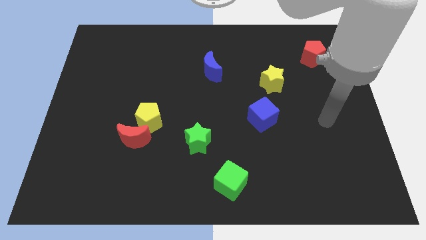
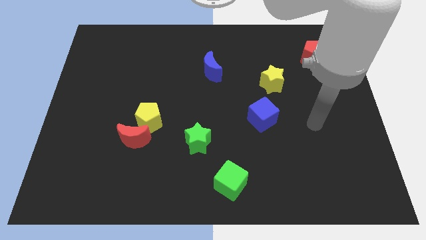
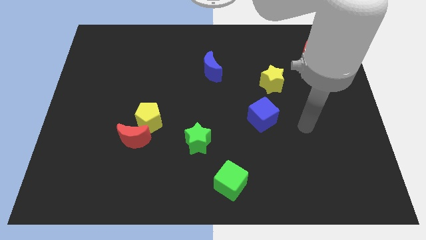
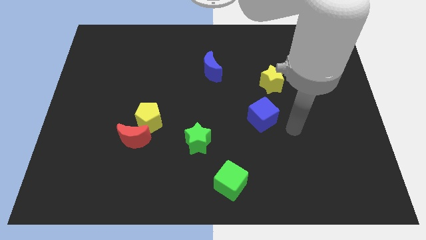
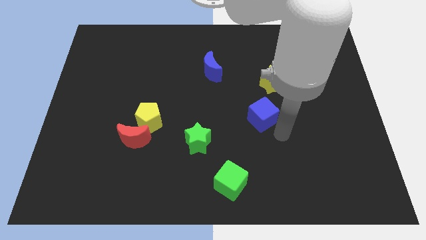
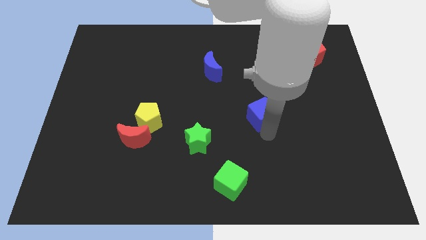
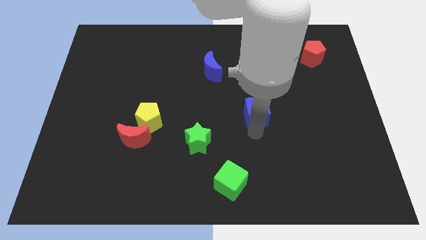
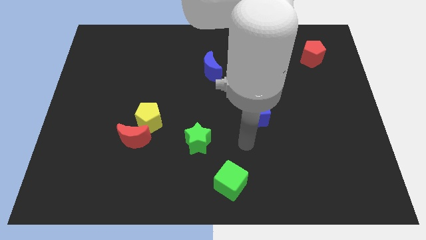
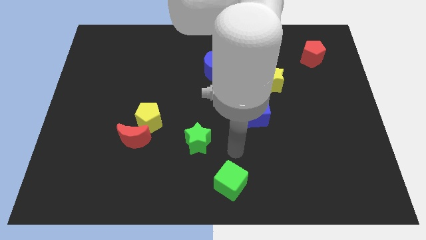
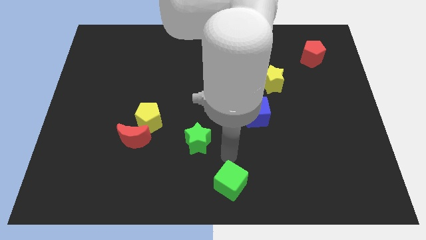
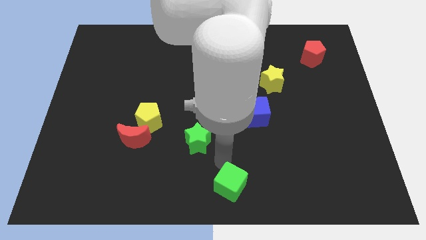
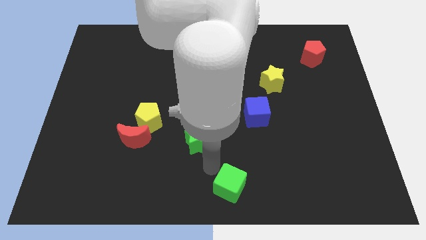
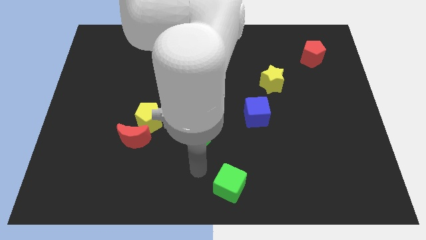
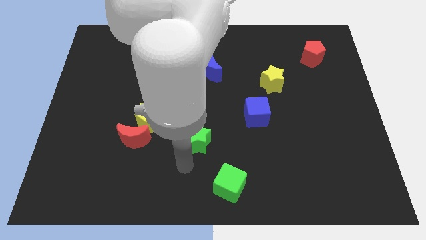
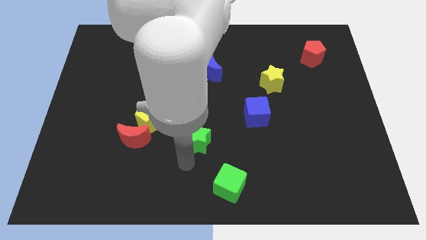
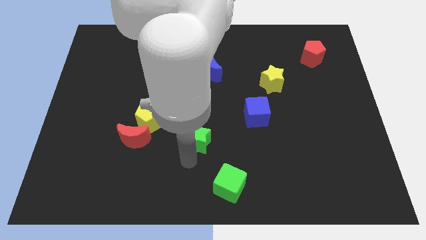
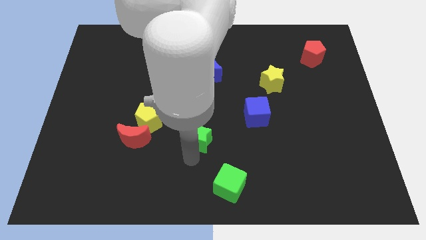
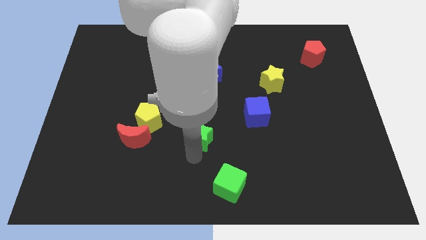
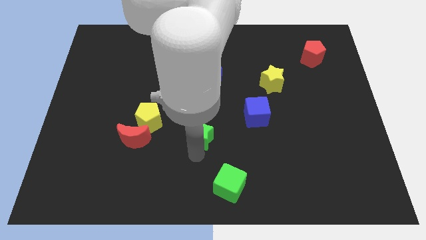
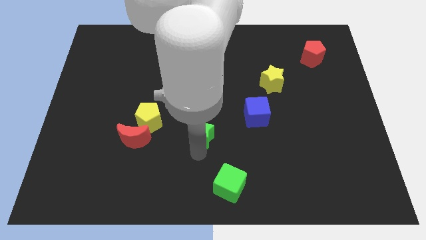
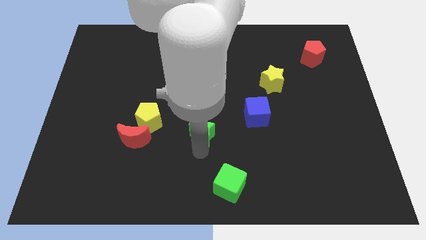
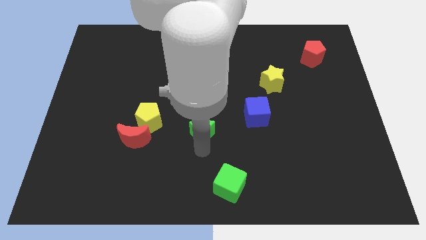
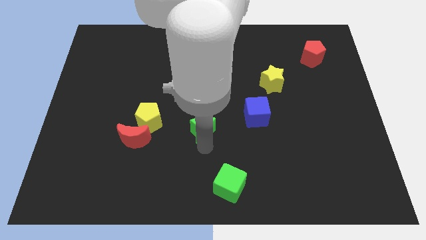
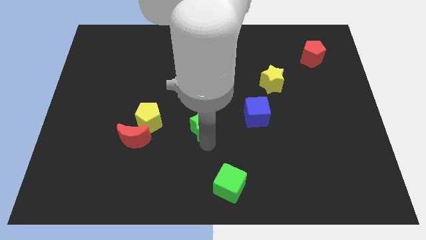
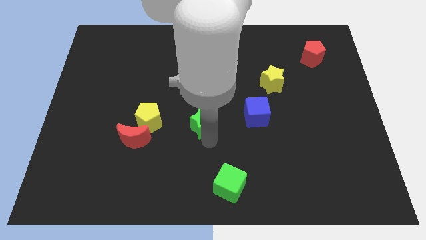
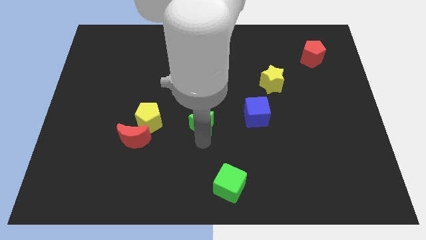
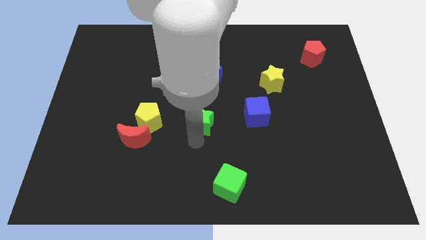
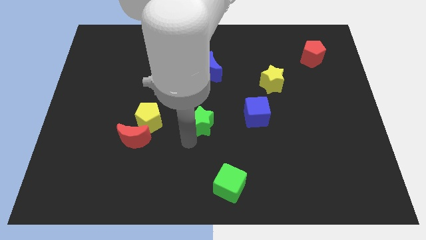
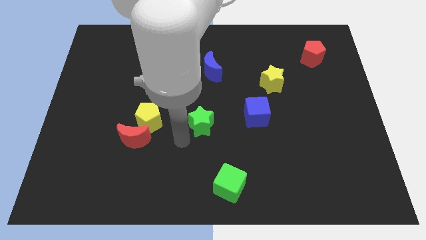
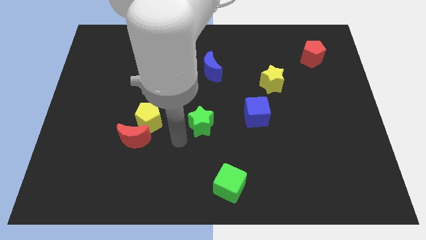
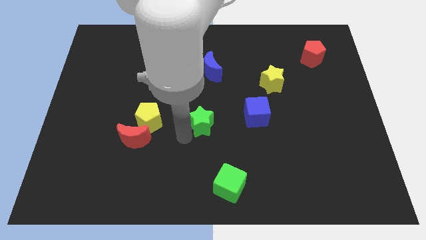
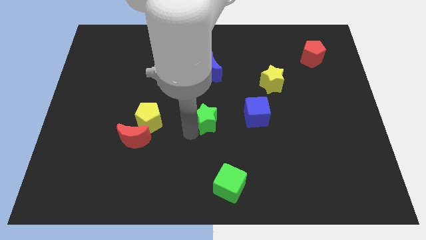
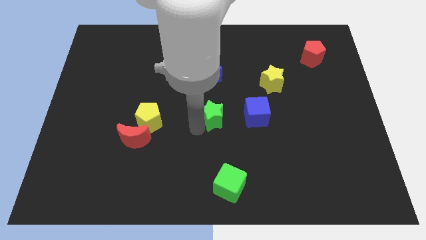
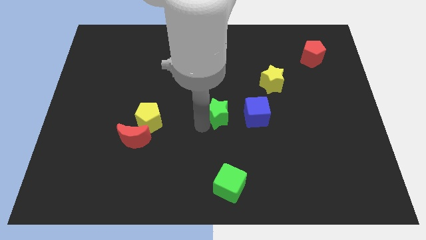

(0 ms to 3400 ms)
slightly slide the green star upwards and then right

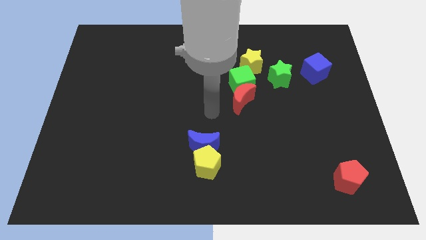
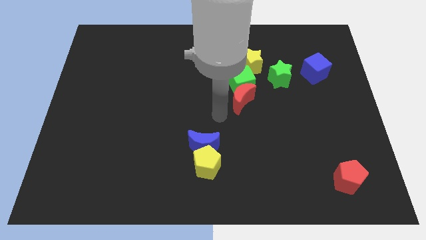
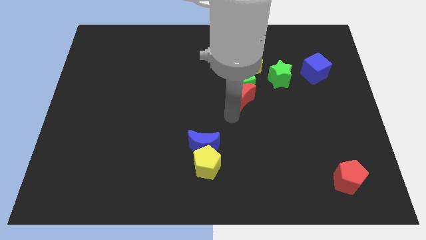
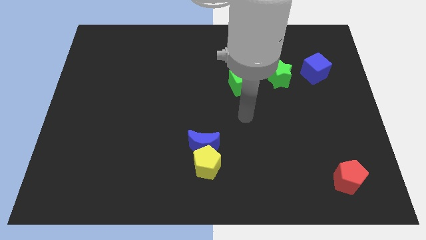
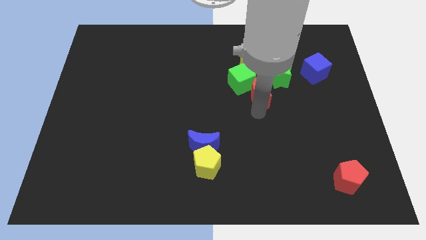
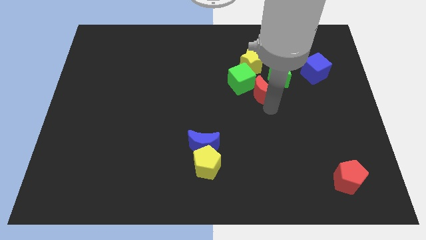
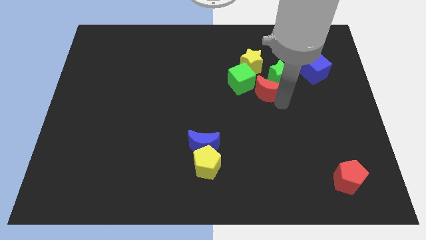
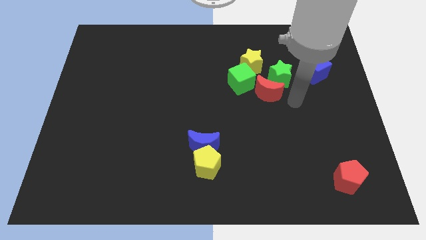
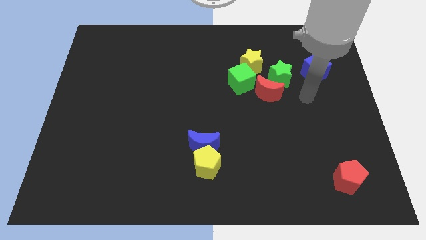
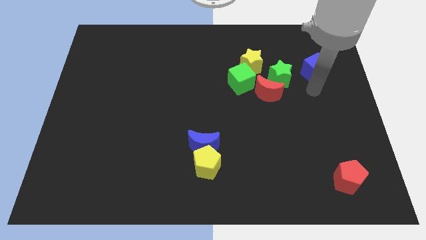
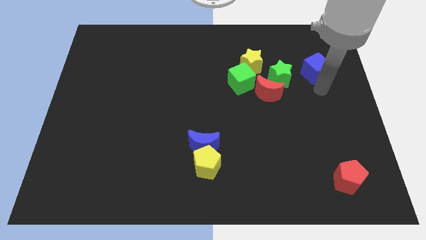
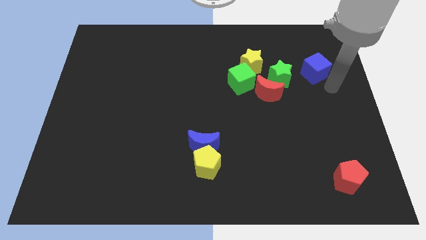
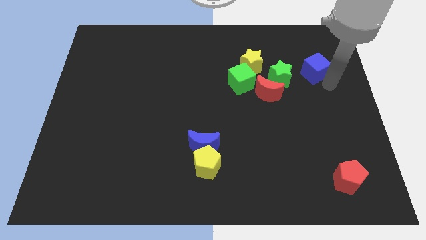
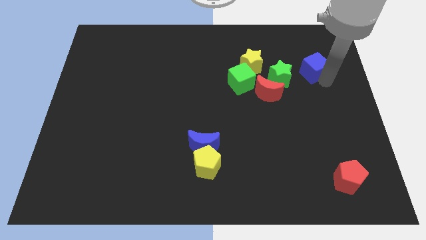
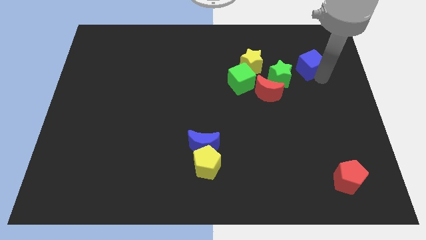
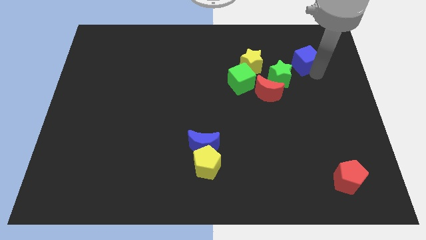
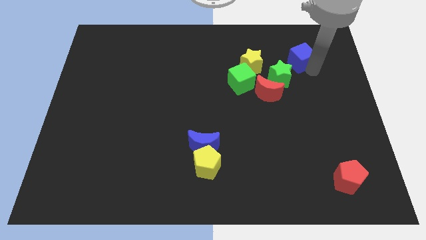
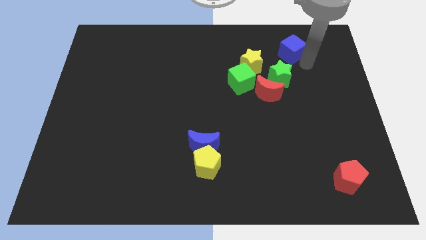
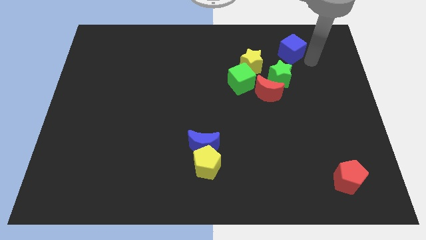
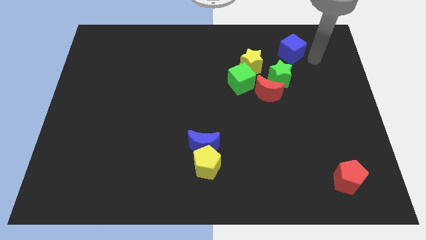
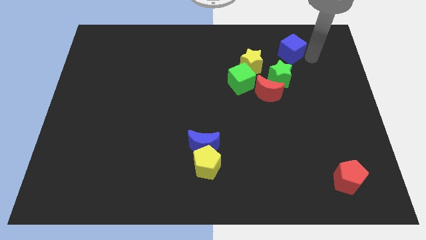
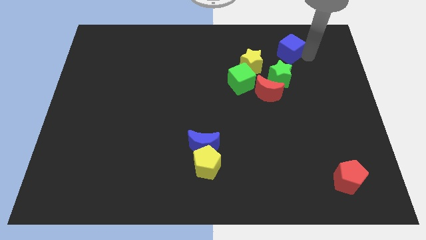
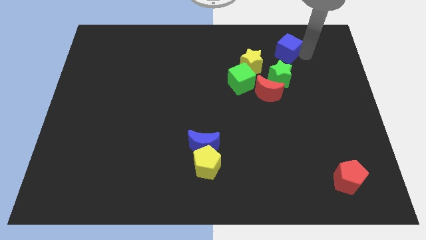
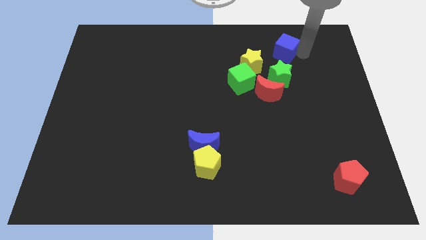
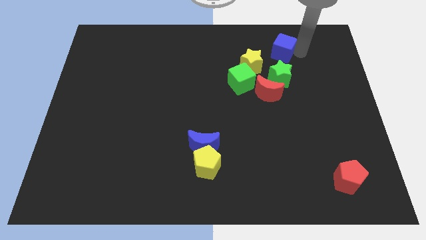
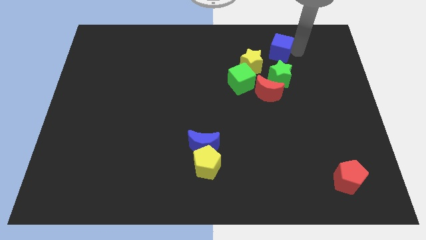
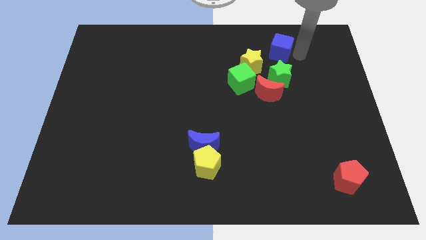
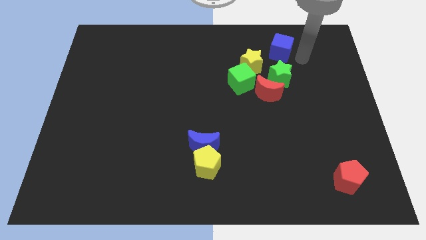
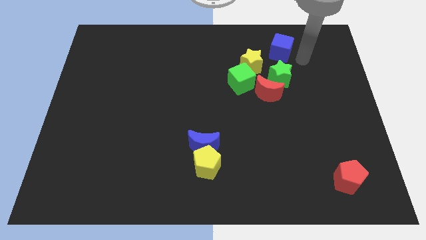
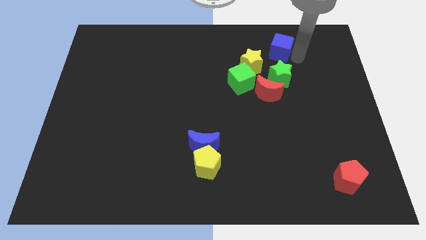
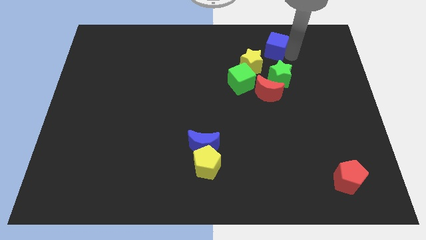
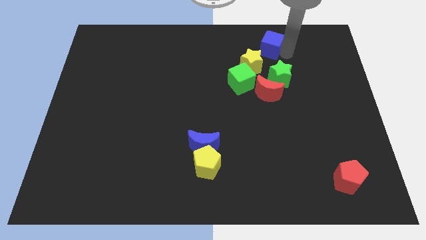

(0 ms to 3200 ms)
slide the blue cube somewhat to the left

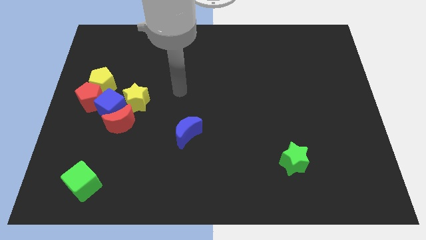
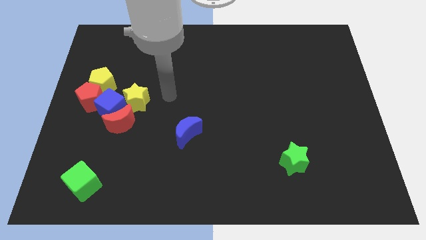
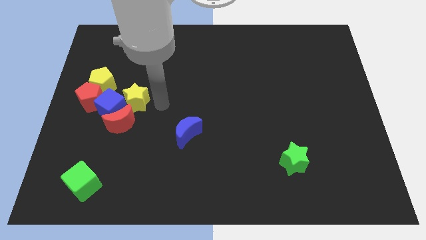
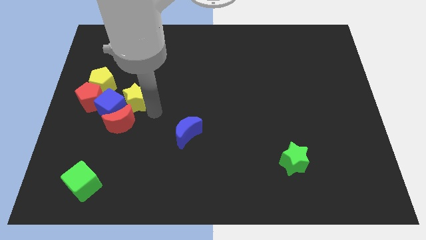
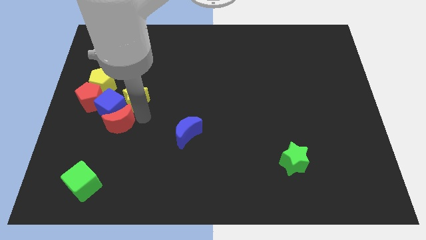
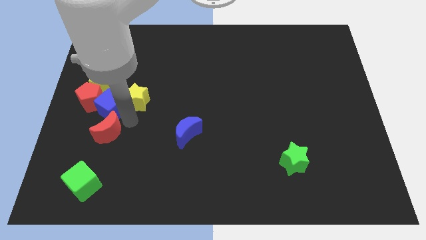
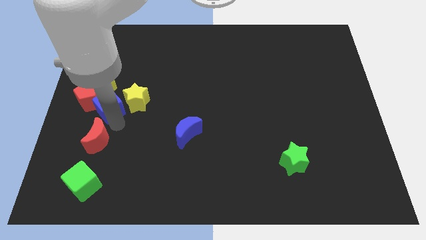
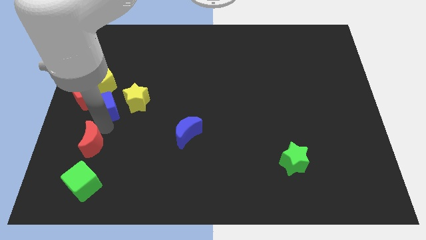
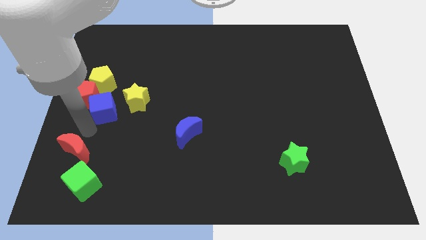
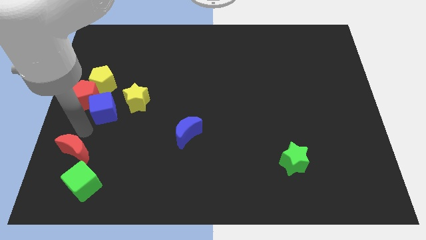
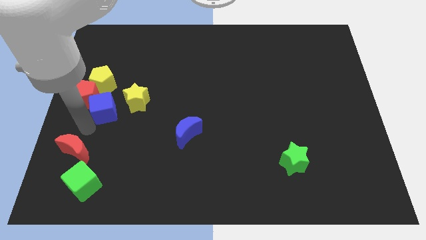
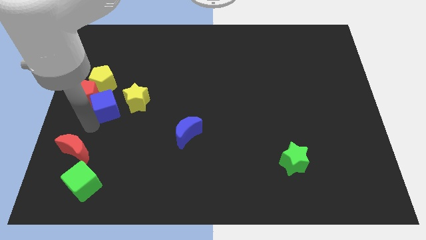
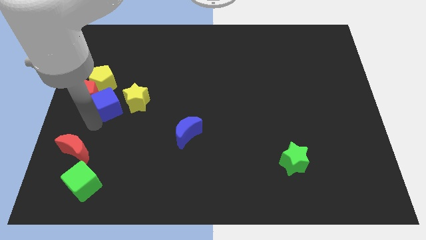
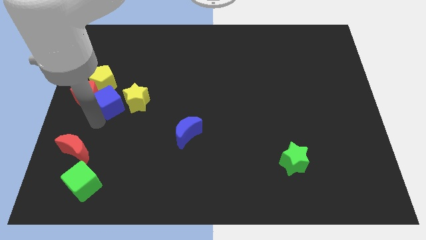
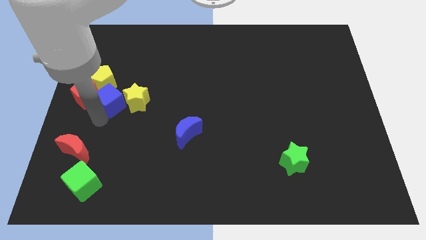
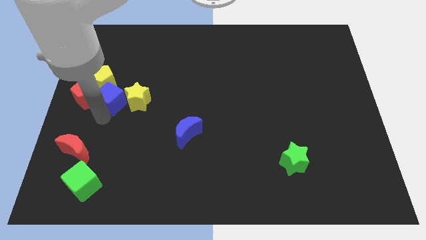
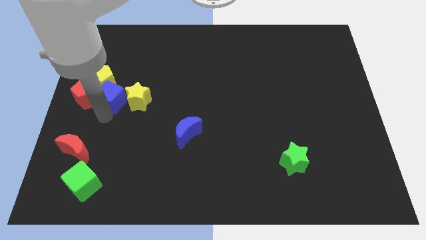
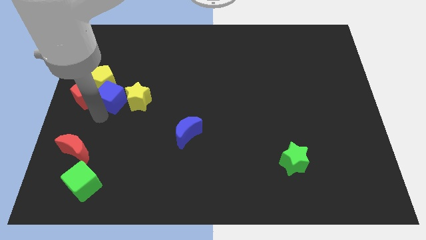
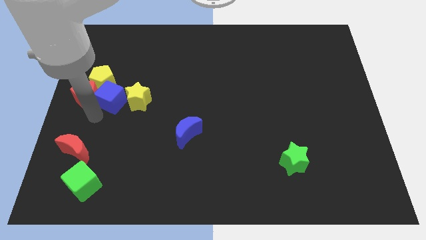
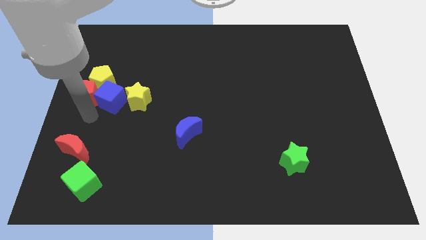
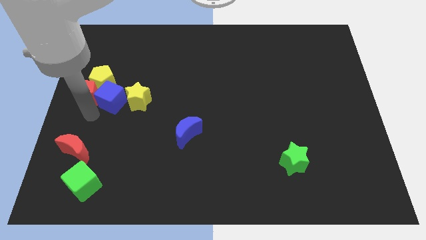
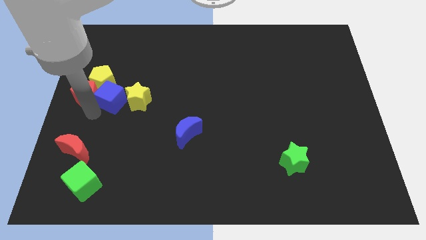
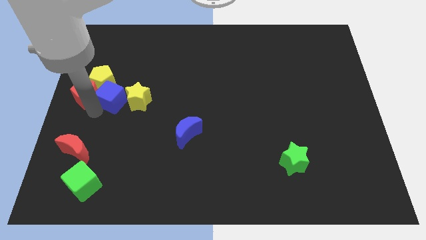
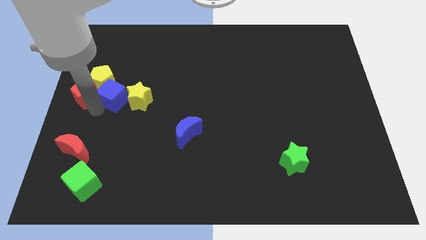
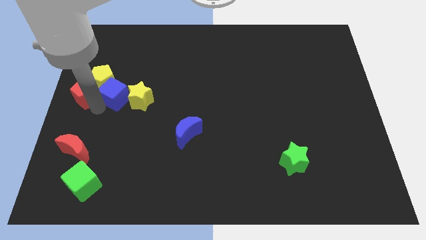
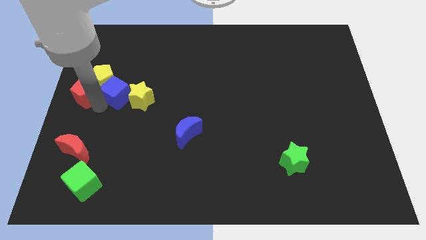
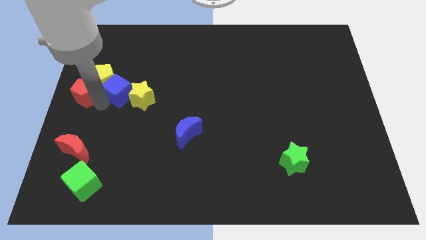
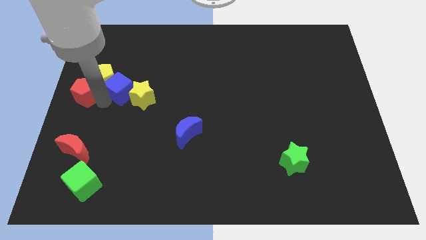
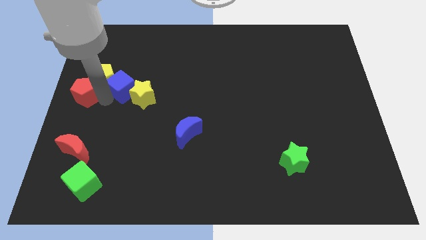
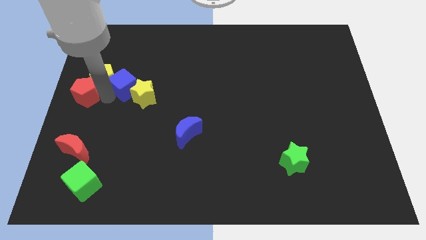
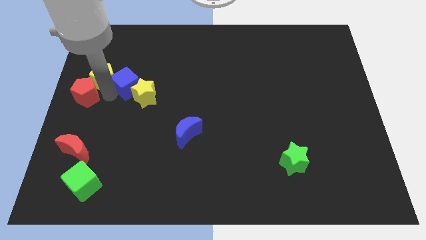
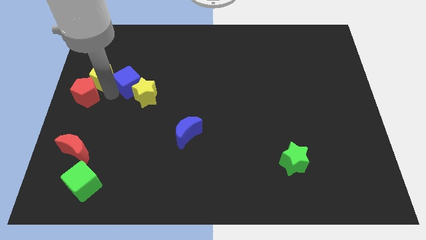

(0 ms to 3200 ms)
move the blue cube somewhat diagonally upwards and right
